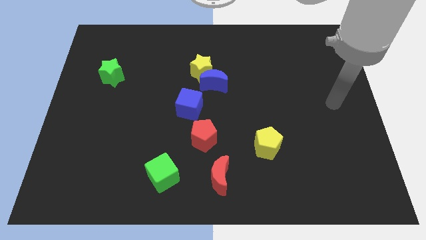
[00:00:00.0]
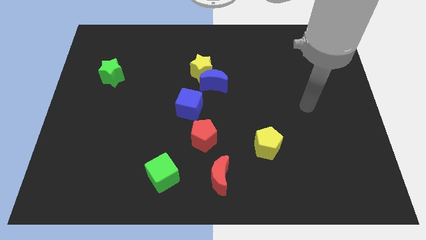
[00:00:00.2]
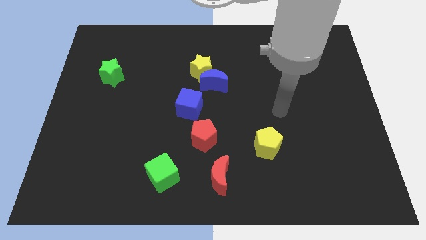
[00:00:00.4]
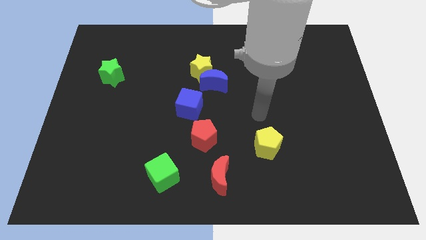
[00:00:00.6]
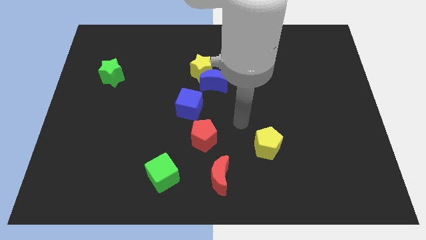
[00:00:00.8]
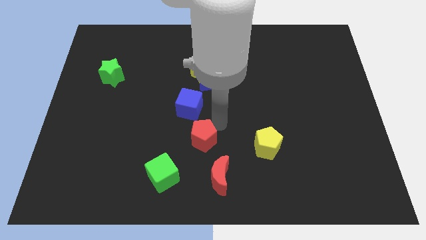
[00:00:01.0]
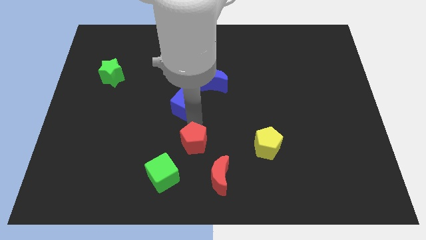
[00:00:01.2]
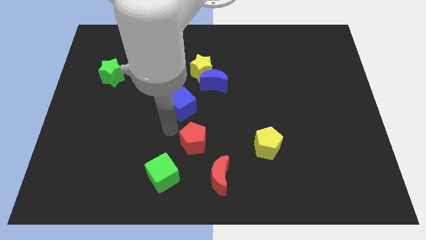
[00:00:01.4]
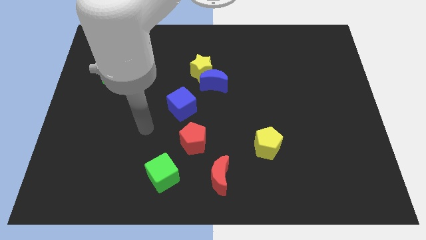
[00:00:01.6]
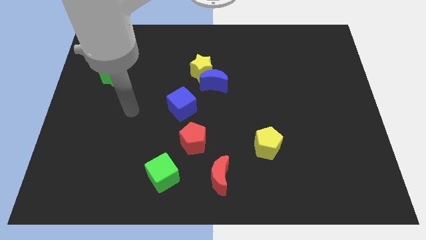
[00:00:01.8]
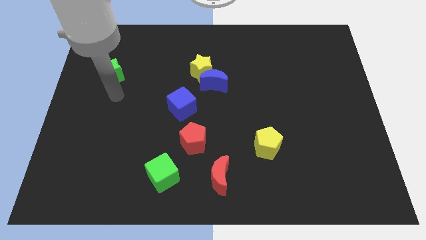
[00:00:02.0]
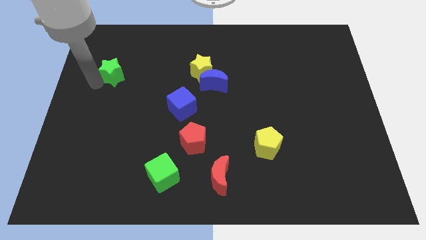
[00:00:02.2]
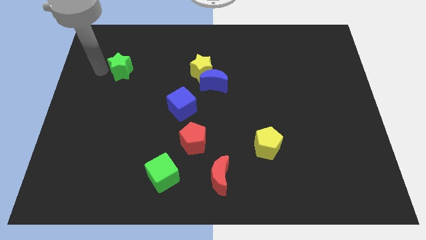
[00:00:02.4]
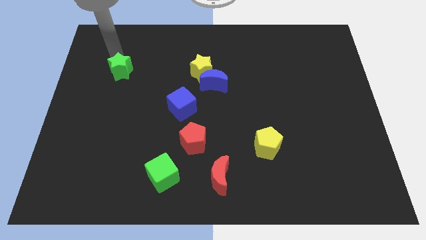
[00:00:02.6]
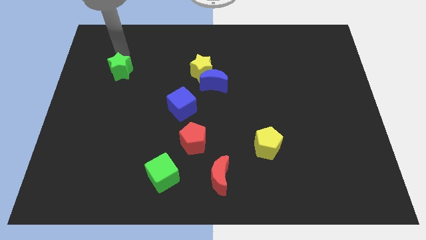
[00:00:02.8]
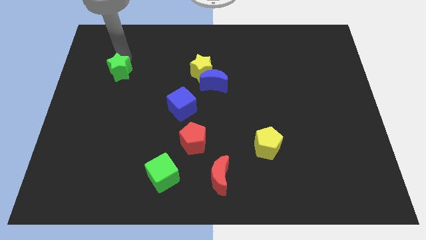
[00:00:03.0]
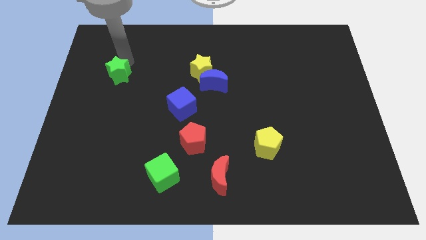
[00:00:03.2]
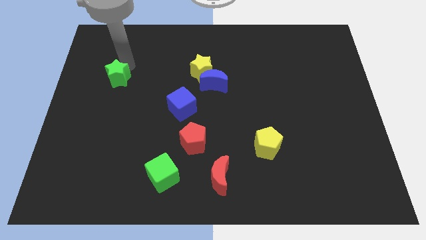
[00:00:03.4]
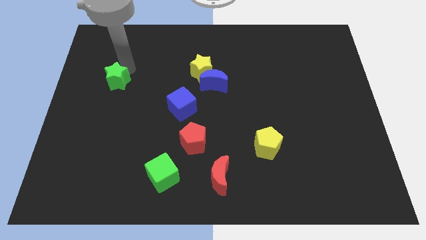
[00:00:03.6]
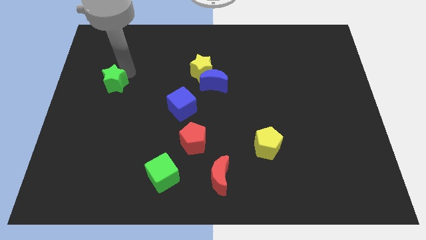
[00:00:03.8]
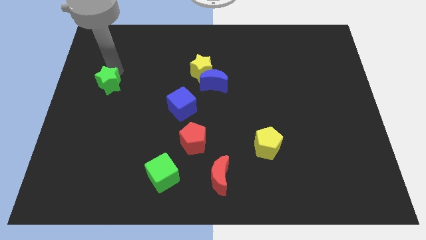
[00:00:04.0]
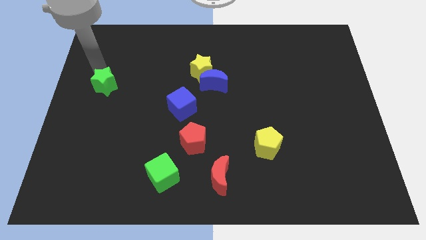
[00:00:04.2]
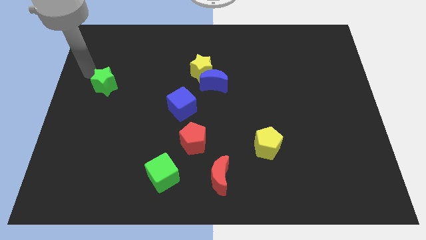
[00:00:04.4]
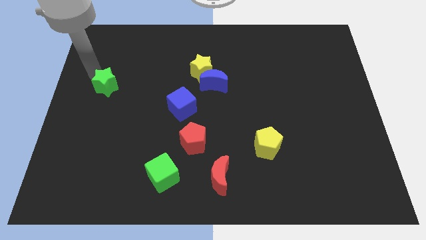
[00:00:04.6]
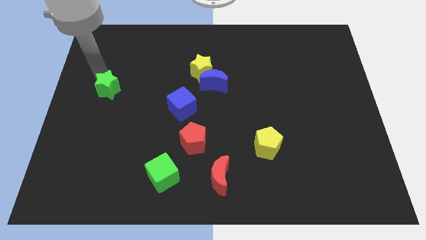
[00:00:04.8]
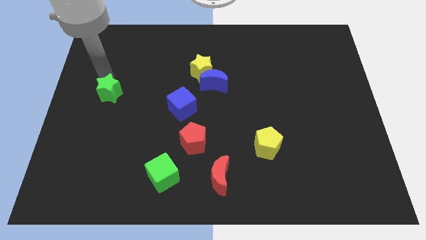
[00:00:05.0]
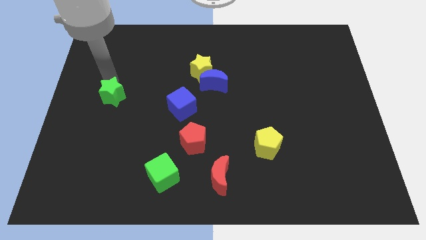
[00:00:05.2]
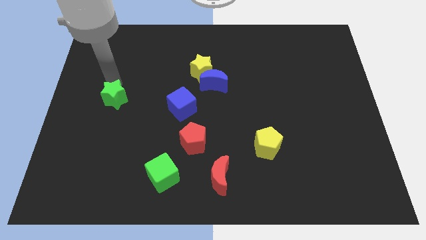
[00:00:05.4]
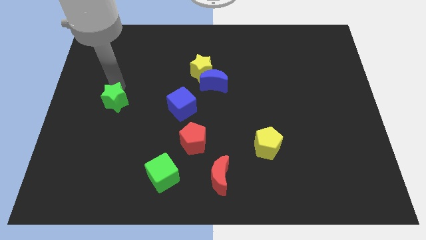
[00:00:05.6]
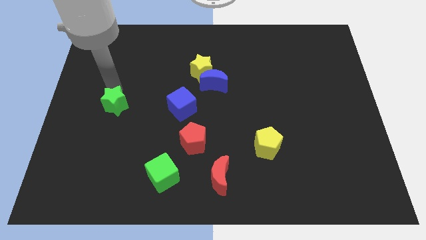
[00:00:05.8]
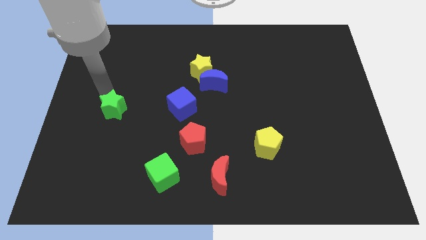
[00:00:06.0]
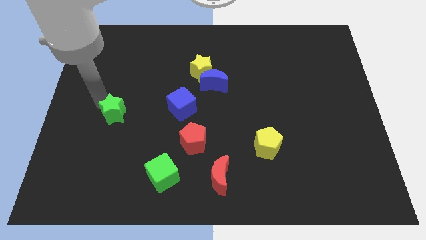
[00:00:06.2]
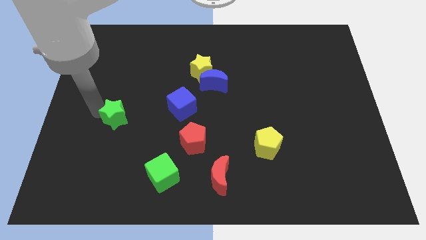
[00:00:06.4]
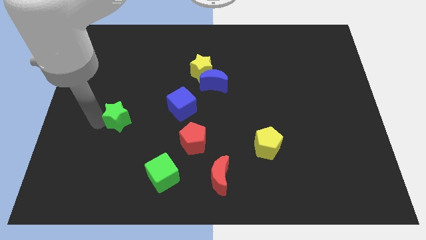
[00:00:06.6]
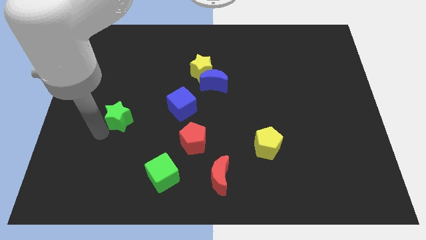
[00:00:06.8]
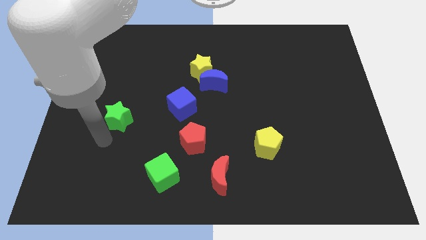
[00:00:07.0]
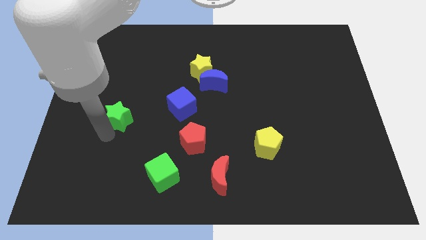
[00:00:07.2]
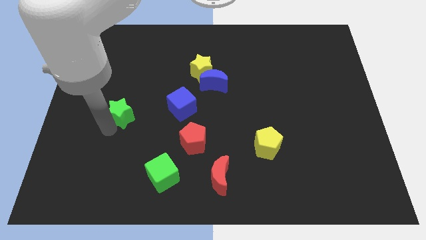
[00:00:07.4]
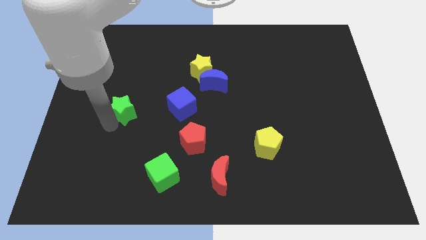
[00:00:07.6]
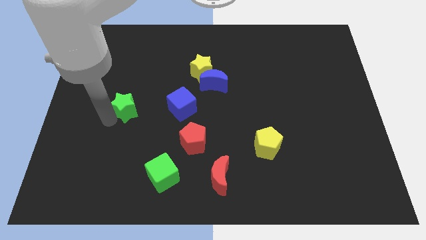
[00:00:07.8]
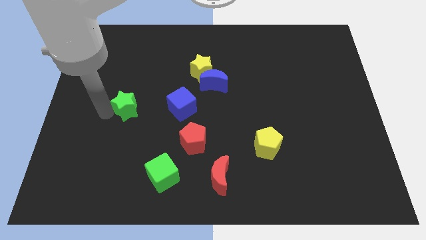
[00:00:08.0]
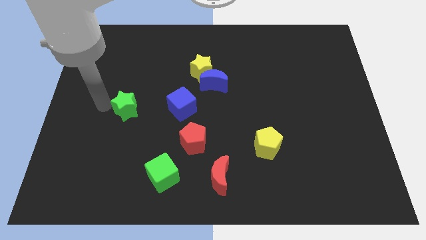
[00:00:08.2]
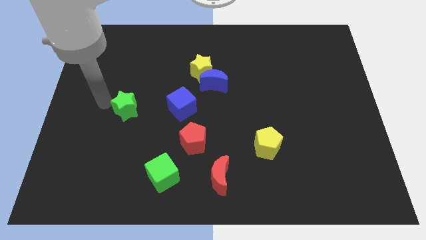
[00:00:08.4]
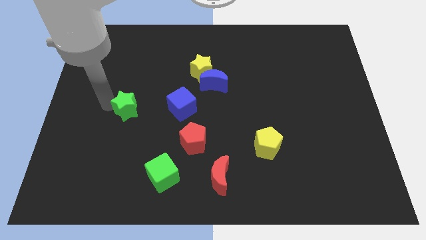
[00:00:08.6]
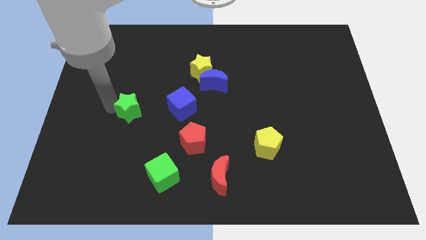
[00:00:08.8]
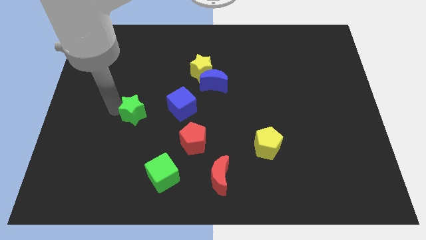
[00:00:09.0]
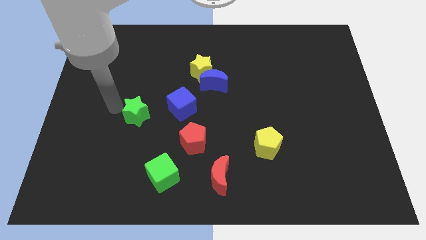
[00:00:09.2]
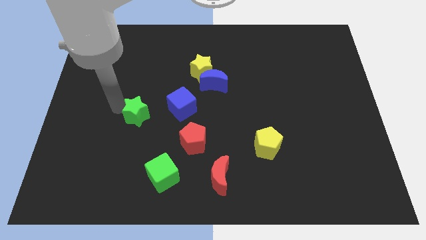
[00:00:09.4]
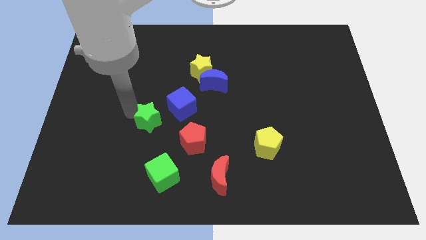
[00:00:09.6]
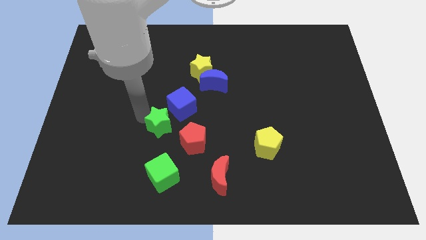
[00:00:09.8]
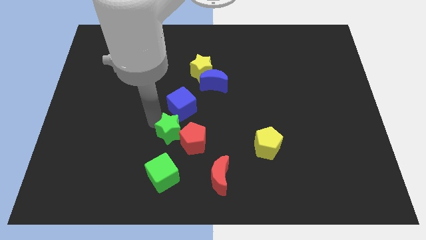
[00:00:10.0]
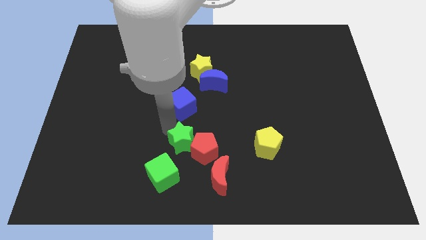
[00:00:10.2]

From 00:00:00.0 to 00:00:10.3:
put the green star to the top left of the red moon

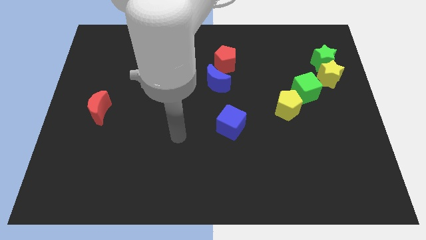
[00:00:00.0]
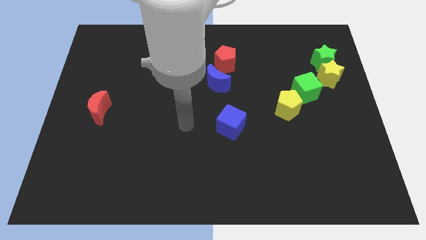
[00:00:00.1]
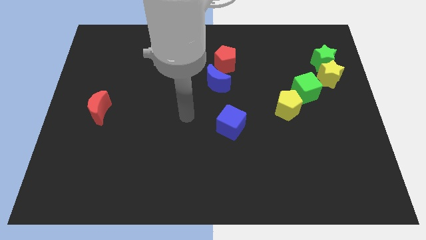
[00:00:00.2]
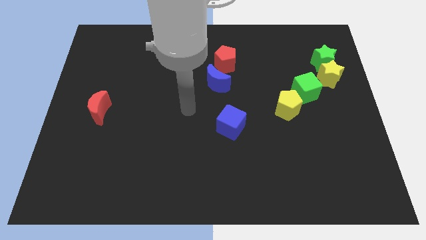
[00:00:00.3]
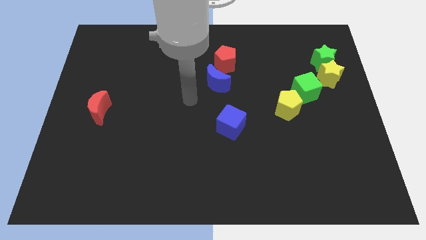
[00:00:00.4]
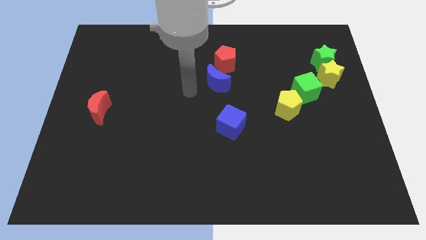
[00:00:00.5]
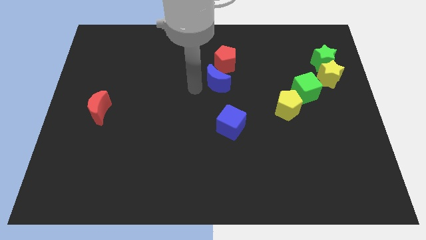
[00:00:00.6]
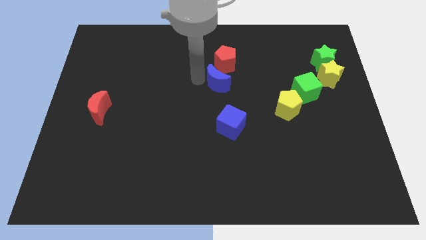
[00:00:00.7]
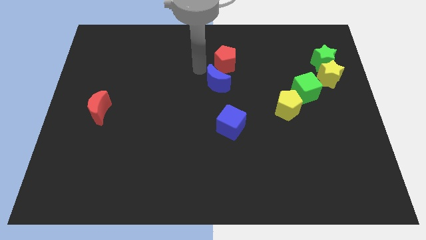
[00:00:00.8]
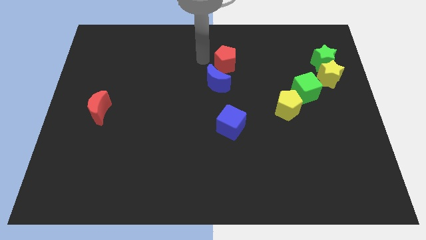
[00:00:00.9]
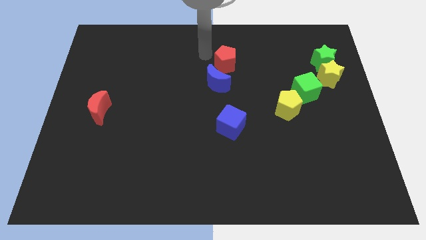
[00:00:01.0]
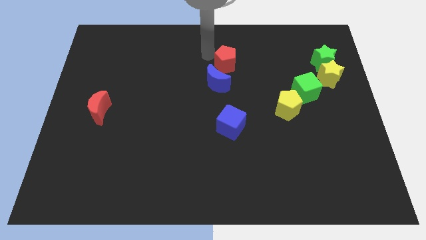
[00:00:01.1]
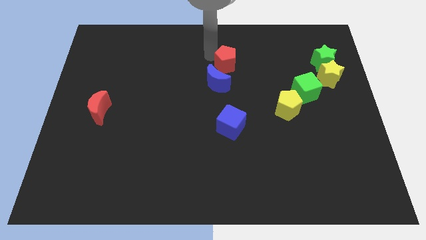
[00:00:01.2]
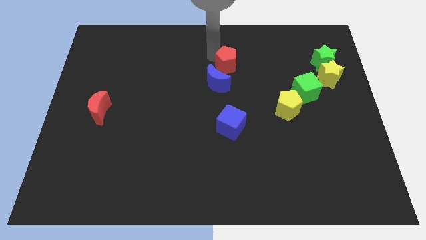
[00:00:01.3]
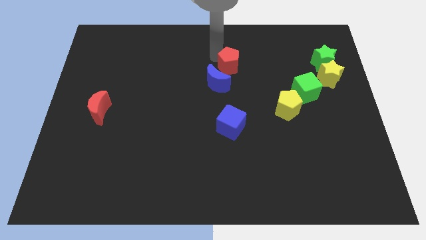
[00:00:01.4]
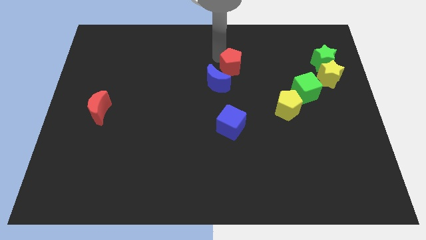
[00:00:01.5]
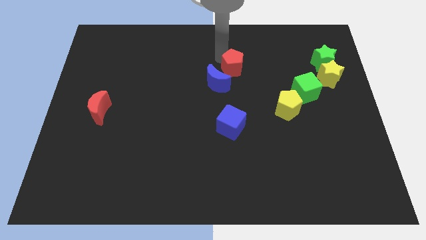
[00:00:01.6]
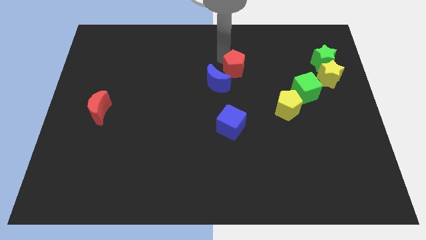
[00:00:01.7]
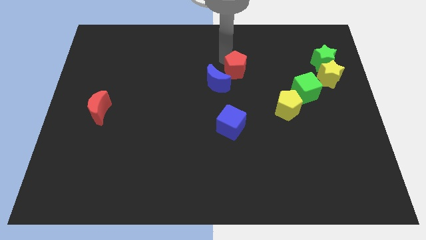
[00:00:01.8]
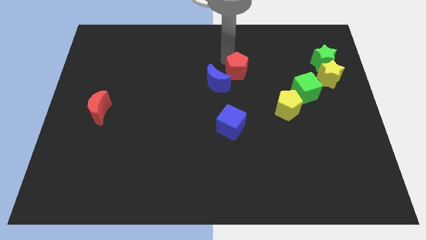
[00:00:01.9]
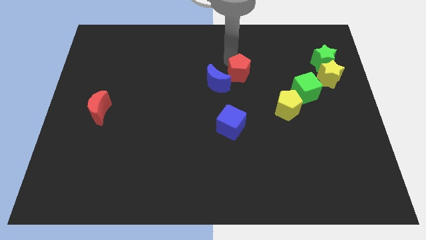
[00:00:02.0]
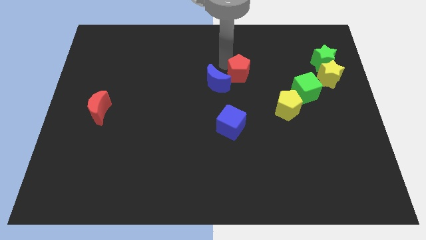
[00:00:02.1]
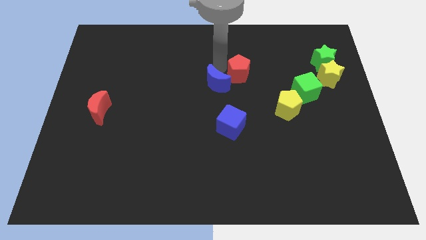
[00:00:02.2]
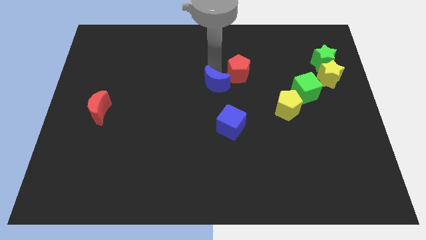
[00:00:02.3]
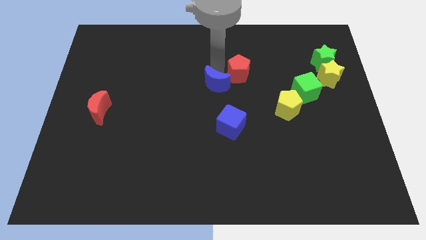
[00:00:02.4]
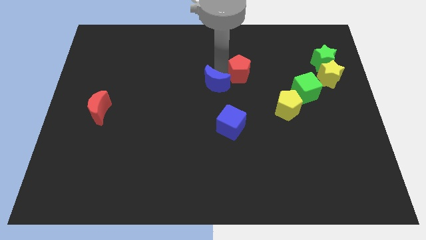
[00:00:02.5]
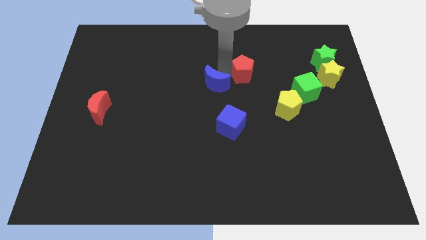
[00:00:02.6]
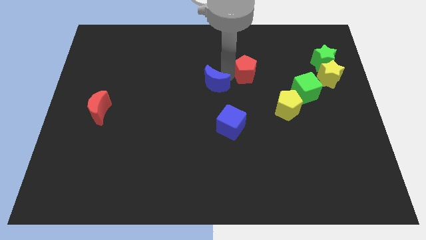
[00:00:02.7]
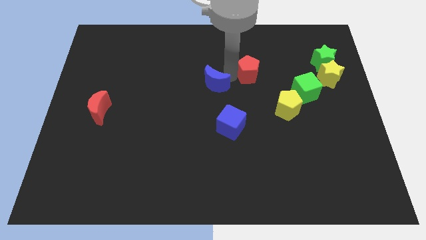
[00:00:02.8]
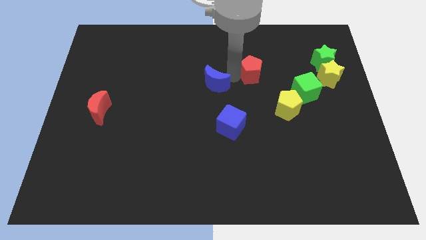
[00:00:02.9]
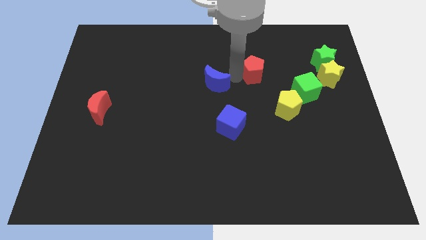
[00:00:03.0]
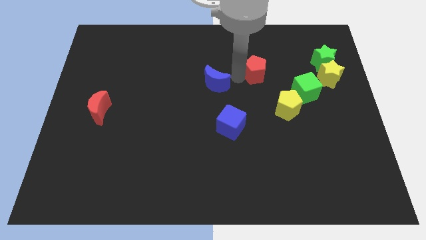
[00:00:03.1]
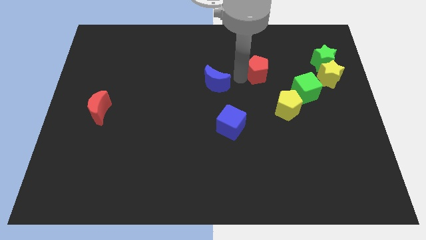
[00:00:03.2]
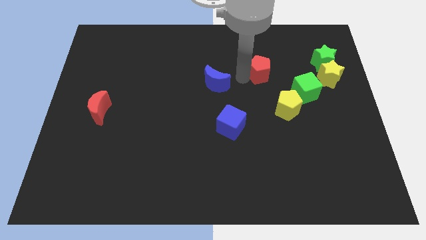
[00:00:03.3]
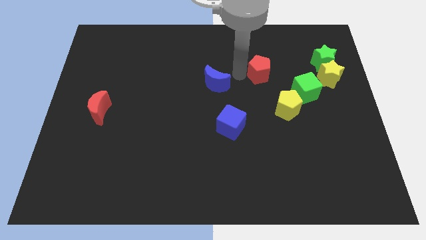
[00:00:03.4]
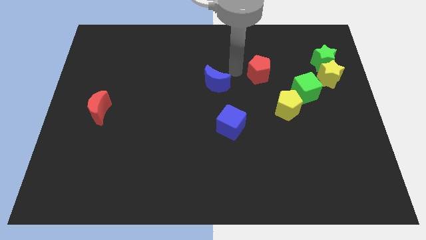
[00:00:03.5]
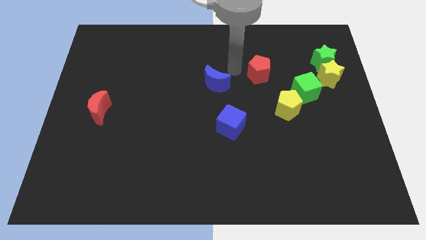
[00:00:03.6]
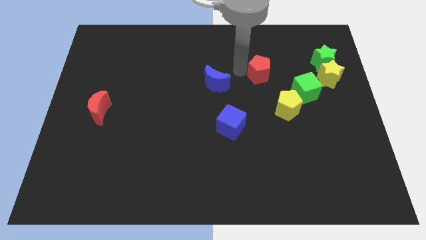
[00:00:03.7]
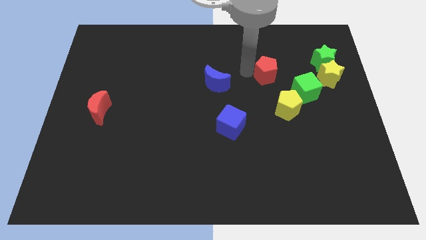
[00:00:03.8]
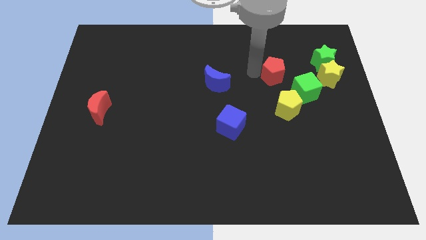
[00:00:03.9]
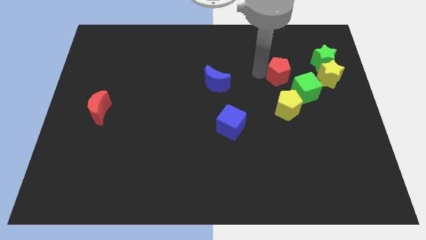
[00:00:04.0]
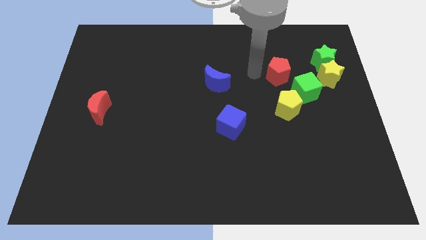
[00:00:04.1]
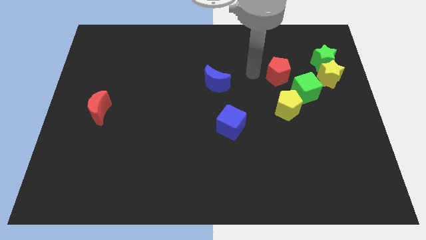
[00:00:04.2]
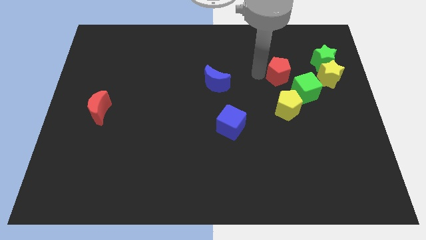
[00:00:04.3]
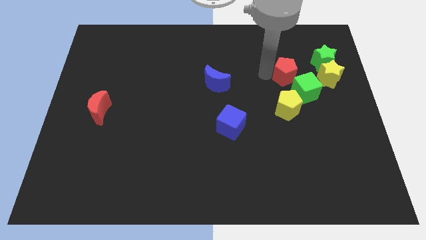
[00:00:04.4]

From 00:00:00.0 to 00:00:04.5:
move the red pentagon to the bottom left side of the green star
